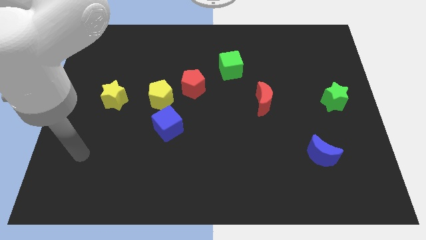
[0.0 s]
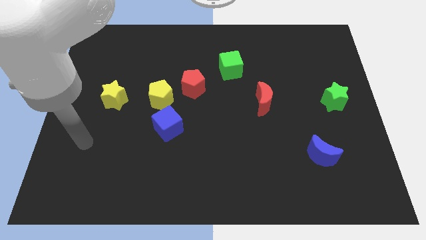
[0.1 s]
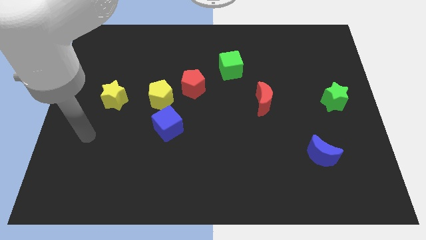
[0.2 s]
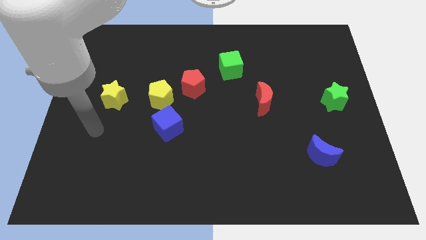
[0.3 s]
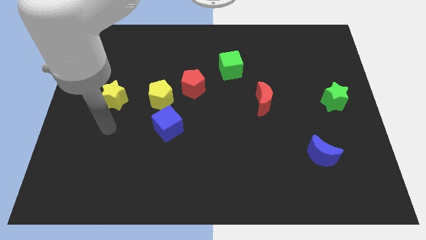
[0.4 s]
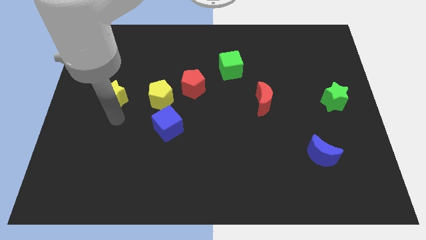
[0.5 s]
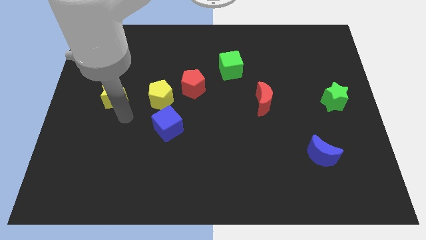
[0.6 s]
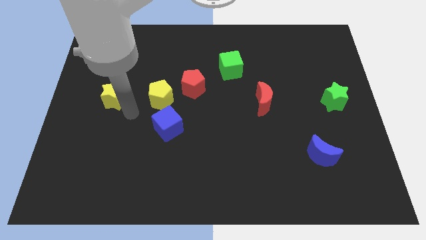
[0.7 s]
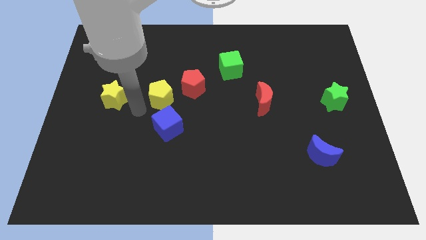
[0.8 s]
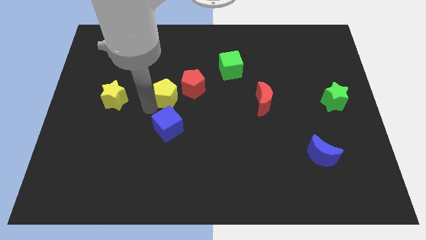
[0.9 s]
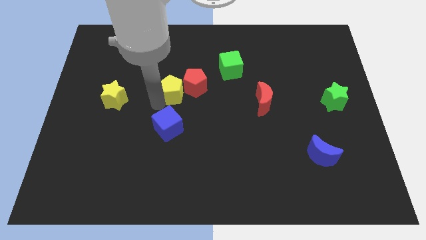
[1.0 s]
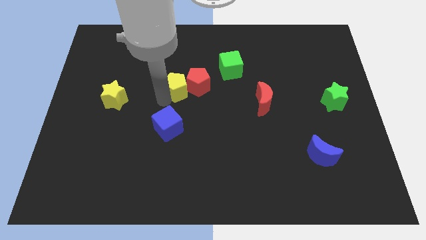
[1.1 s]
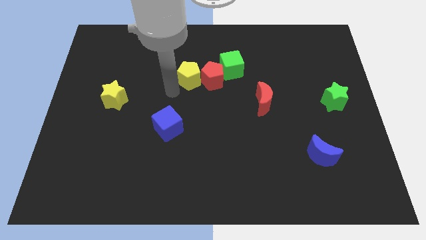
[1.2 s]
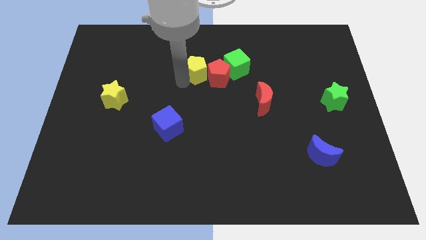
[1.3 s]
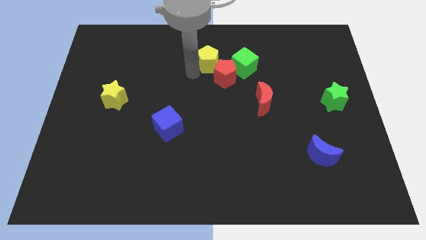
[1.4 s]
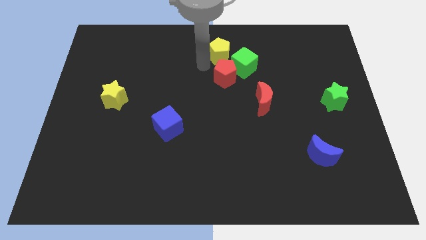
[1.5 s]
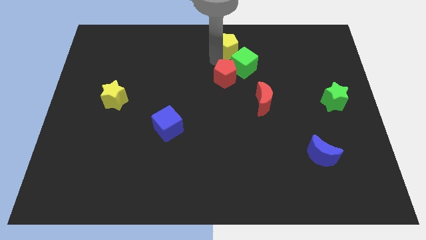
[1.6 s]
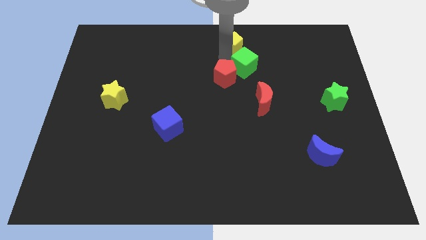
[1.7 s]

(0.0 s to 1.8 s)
separate the red pentagon from the yellow pentagon

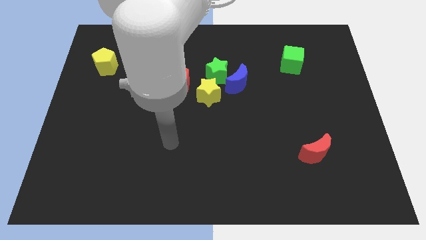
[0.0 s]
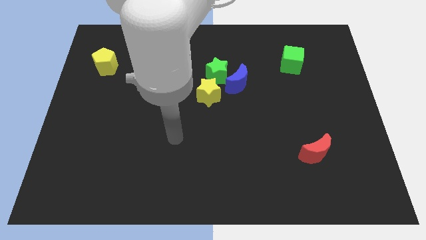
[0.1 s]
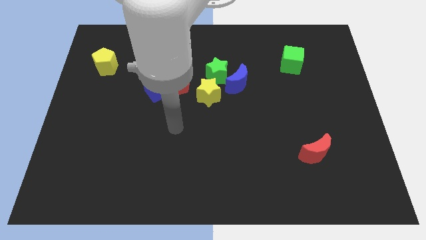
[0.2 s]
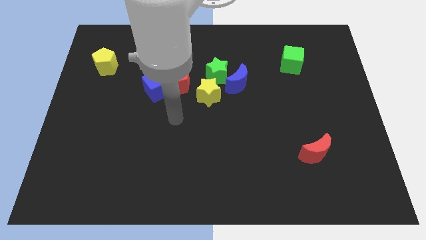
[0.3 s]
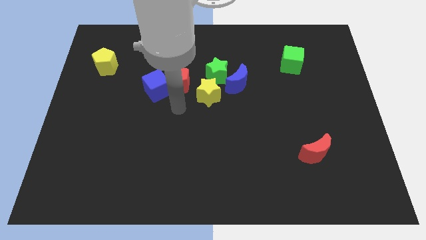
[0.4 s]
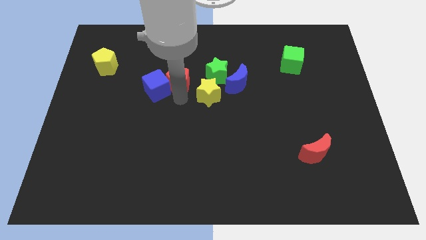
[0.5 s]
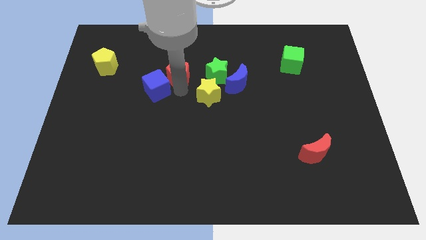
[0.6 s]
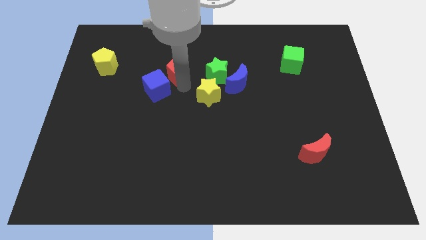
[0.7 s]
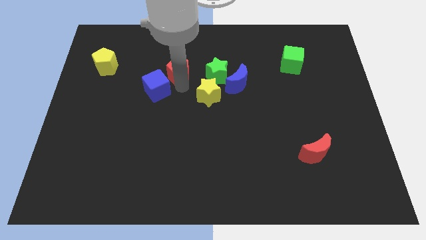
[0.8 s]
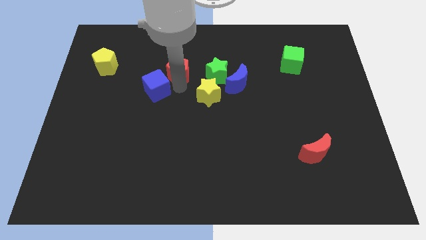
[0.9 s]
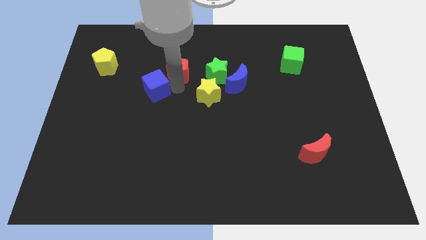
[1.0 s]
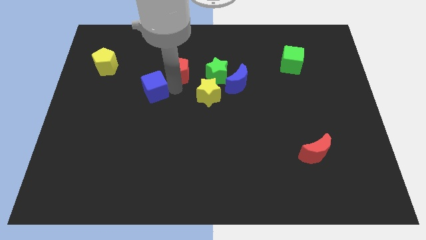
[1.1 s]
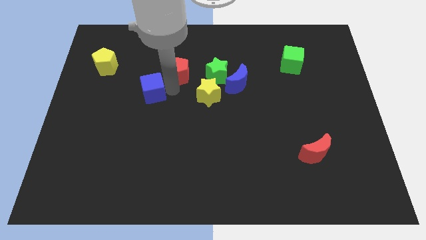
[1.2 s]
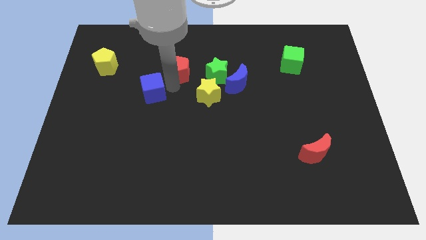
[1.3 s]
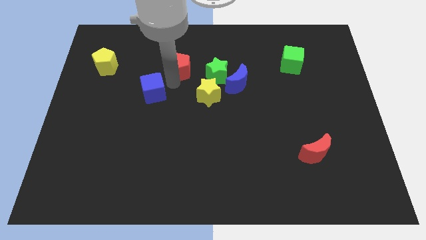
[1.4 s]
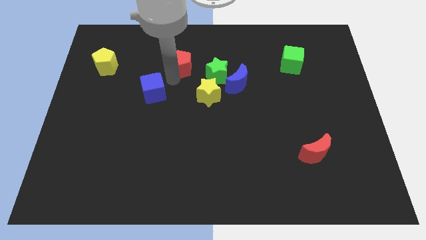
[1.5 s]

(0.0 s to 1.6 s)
pull the blue cube apart from the red pentagon

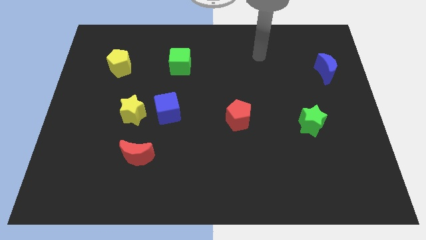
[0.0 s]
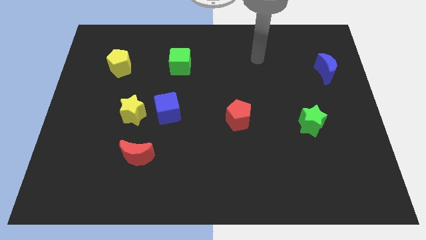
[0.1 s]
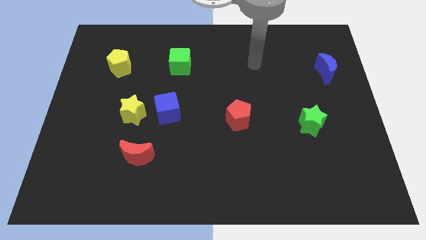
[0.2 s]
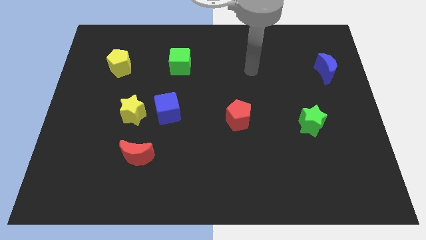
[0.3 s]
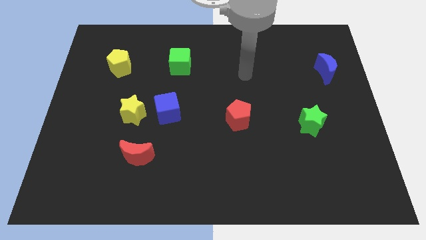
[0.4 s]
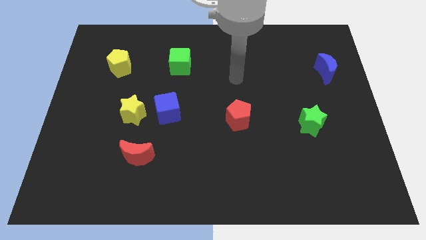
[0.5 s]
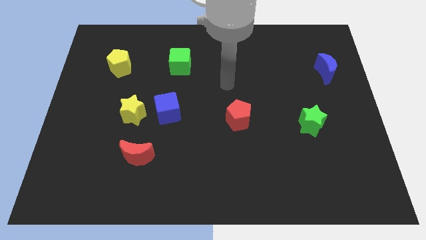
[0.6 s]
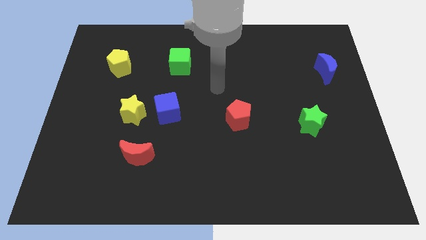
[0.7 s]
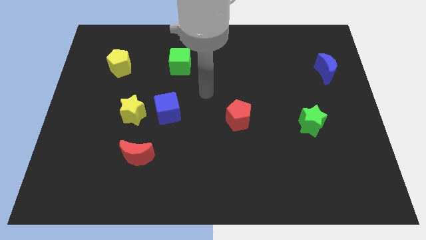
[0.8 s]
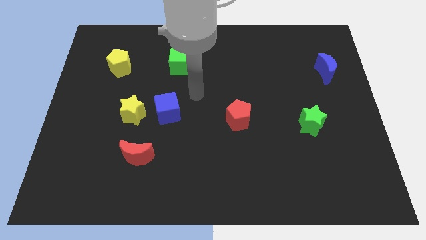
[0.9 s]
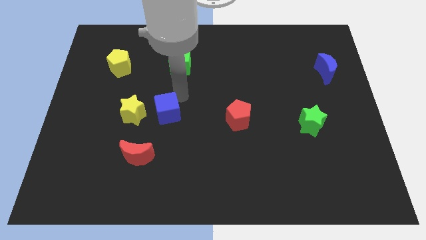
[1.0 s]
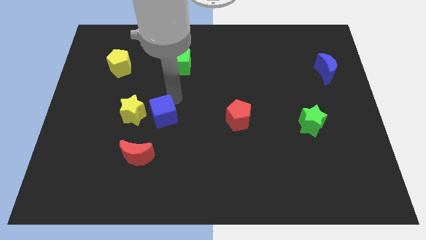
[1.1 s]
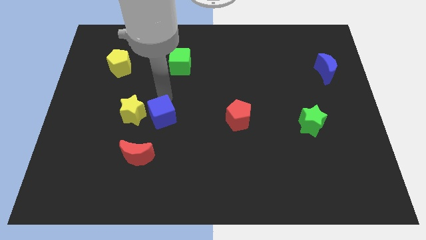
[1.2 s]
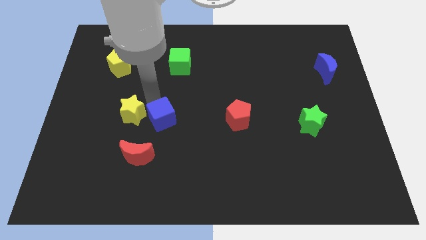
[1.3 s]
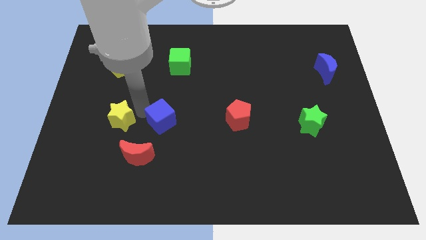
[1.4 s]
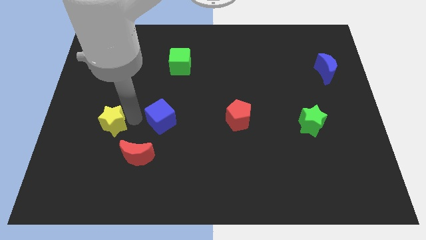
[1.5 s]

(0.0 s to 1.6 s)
separate the blue cube from the yellow star

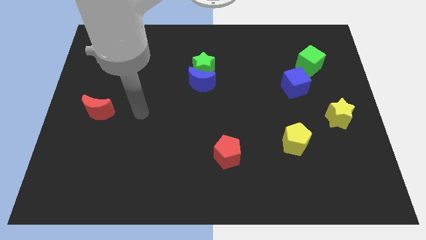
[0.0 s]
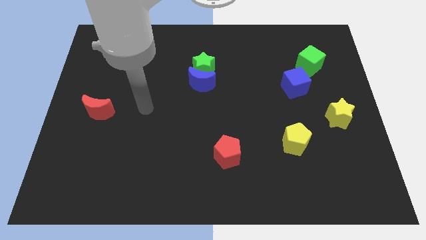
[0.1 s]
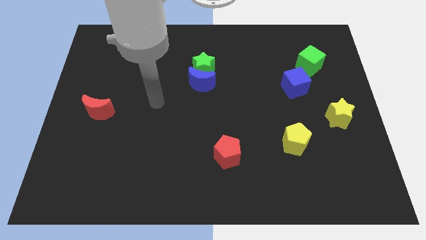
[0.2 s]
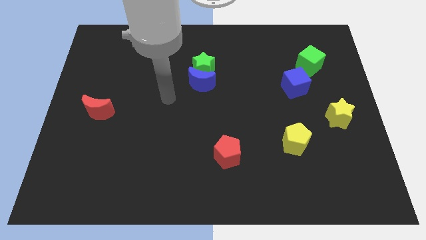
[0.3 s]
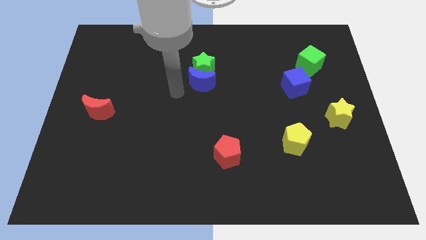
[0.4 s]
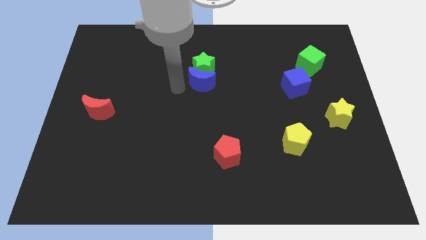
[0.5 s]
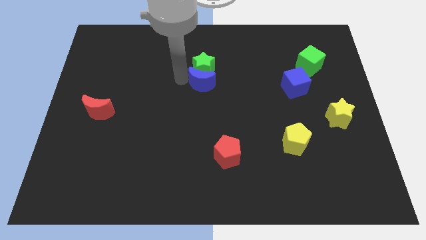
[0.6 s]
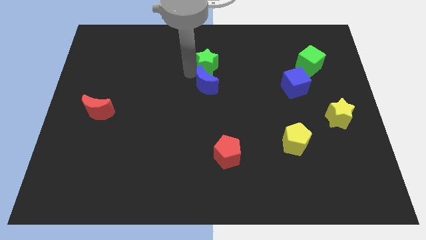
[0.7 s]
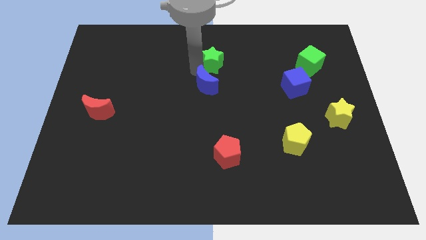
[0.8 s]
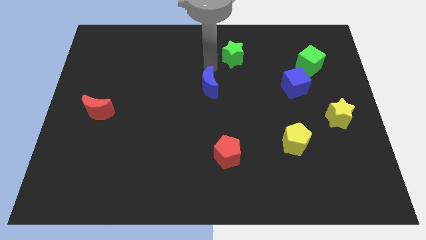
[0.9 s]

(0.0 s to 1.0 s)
move the blue moon away from the green star

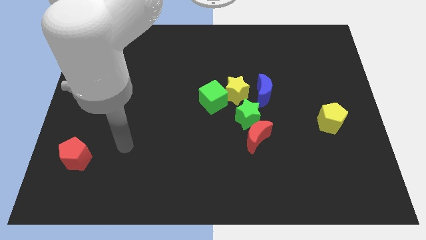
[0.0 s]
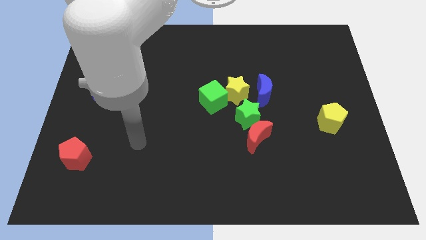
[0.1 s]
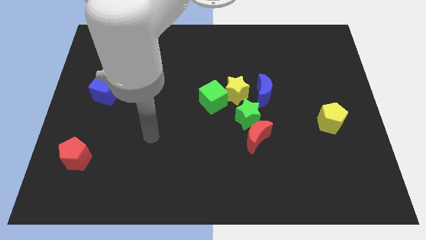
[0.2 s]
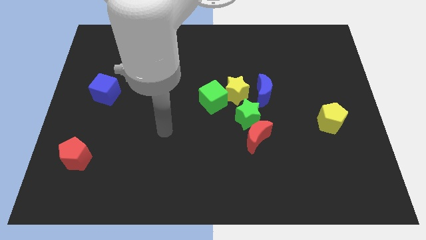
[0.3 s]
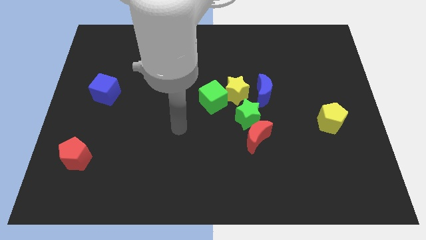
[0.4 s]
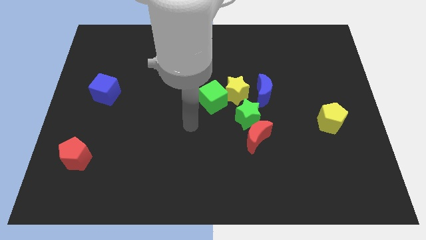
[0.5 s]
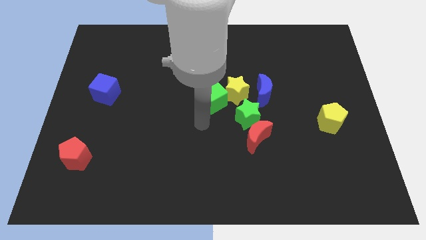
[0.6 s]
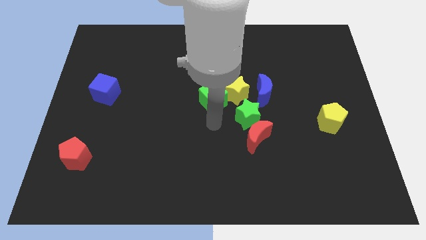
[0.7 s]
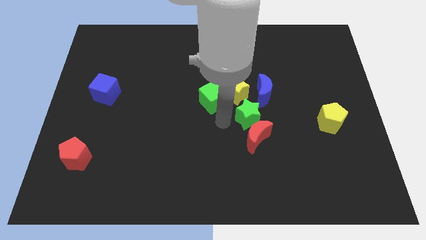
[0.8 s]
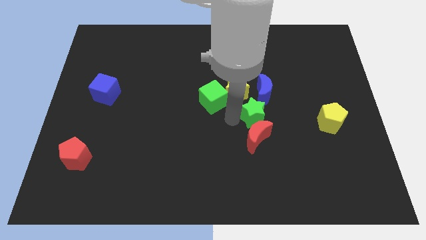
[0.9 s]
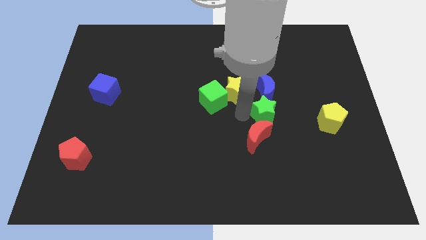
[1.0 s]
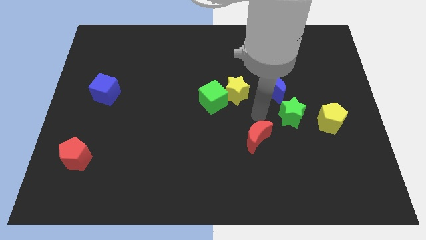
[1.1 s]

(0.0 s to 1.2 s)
move the red moon away from the green star

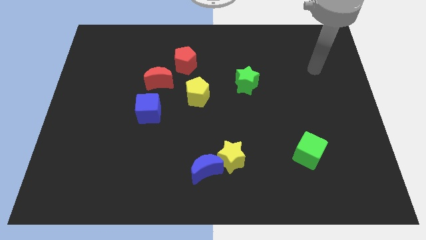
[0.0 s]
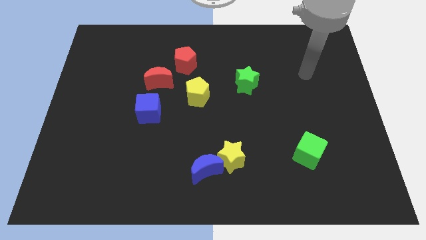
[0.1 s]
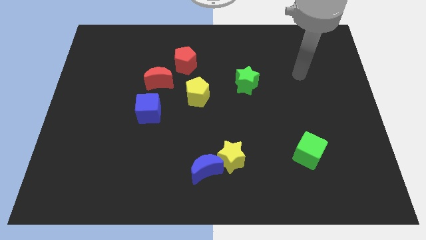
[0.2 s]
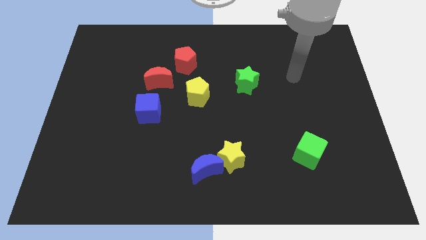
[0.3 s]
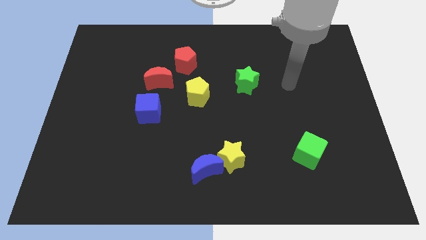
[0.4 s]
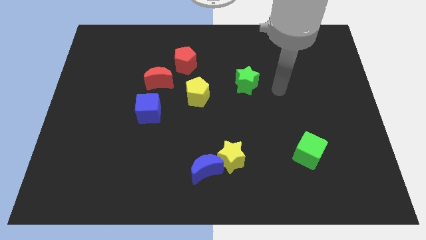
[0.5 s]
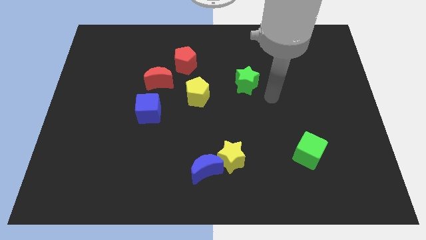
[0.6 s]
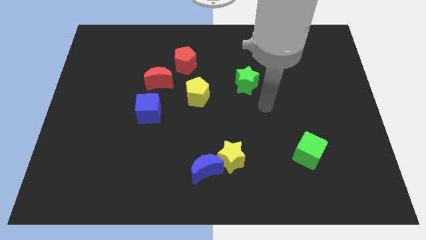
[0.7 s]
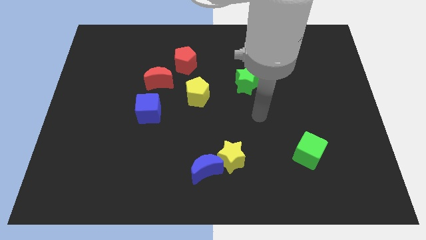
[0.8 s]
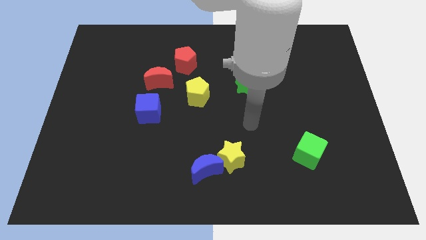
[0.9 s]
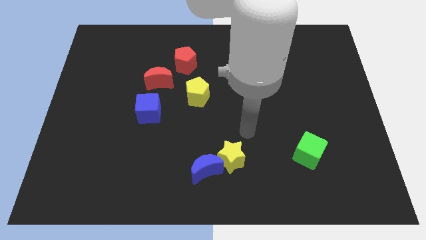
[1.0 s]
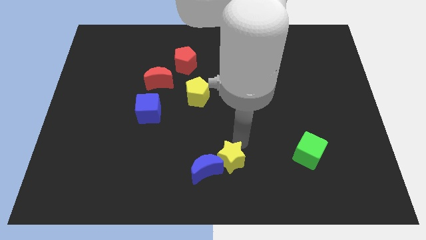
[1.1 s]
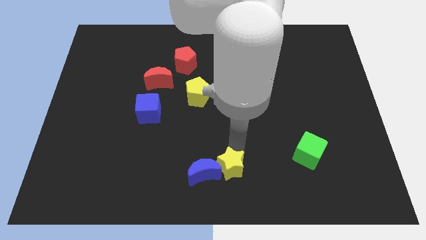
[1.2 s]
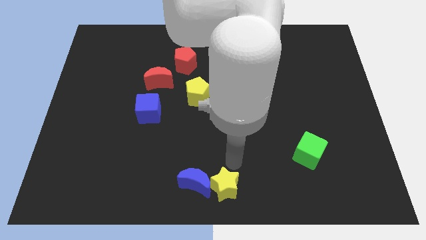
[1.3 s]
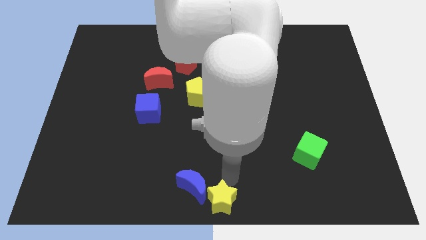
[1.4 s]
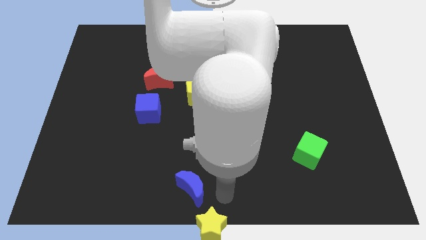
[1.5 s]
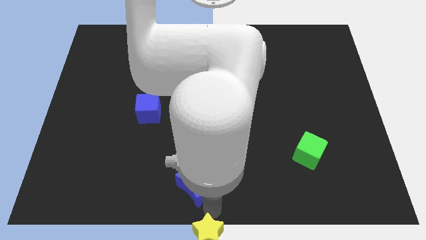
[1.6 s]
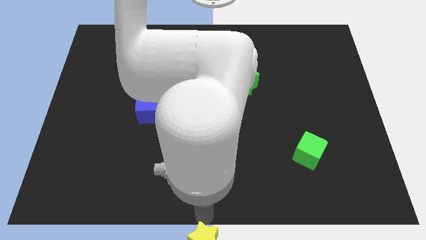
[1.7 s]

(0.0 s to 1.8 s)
separate the blue moon from the yellow star

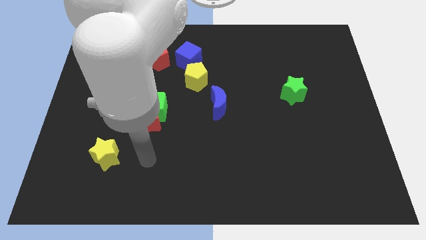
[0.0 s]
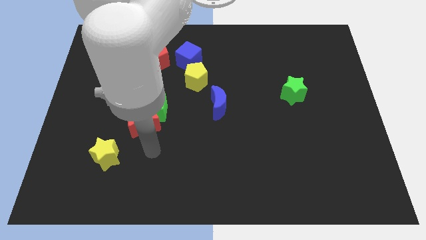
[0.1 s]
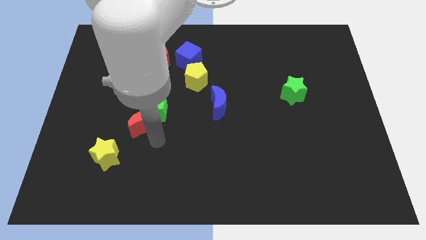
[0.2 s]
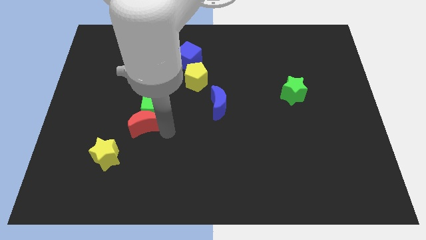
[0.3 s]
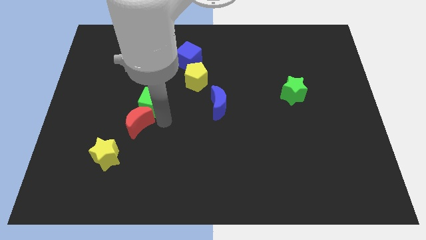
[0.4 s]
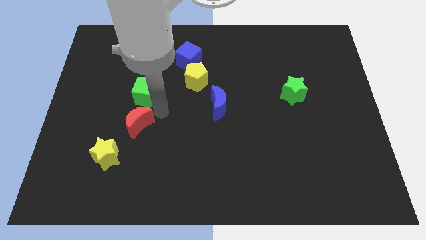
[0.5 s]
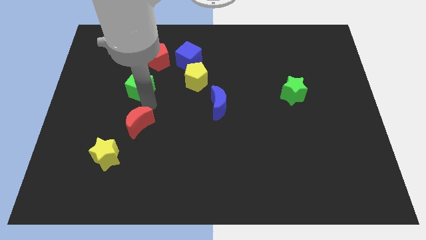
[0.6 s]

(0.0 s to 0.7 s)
separate the red moon from the green cube
